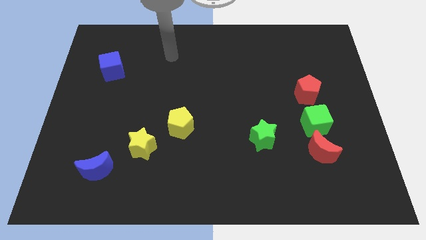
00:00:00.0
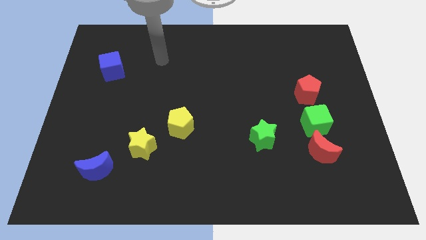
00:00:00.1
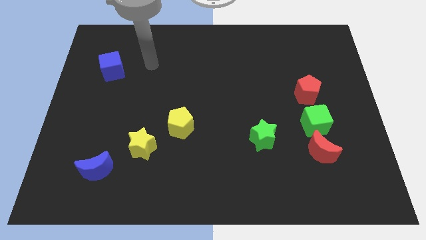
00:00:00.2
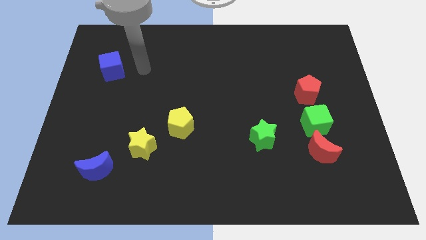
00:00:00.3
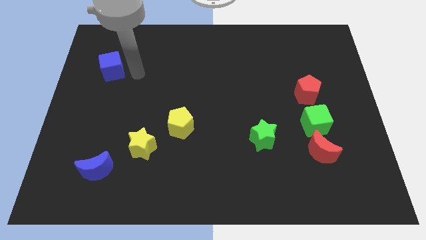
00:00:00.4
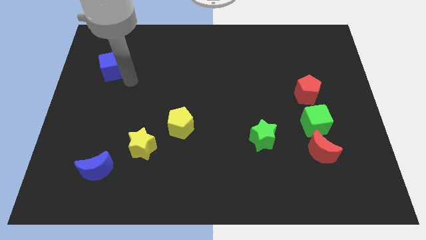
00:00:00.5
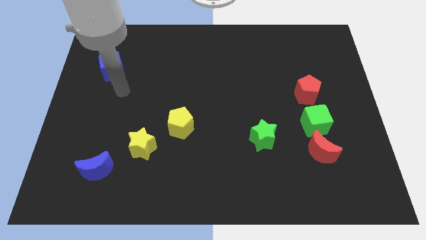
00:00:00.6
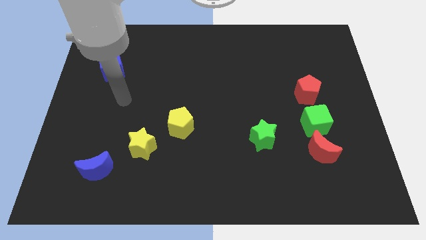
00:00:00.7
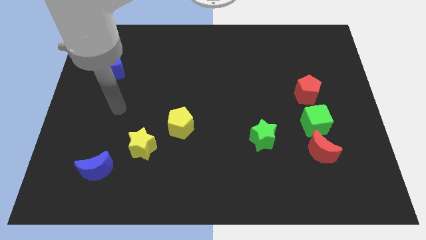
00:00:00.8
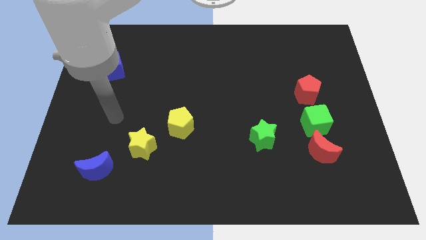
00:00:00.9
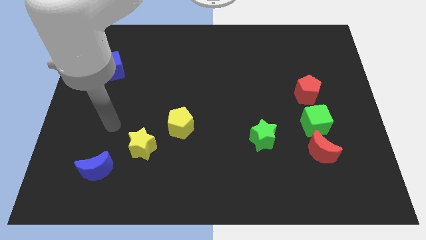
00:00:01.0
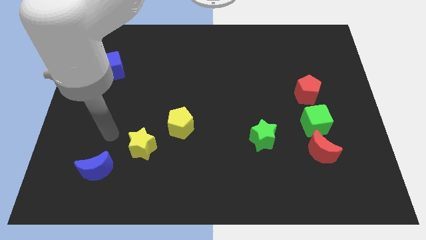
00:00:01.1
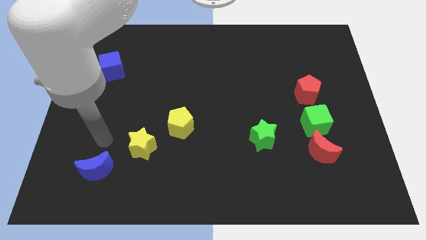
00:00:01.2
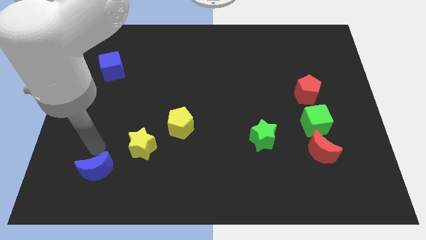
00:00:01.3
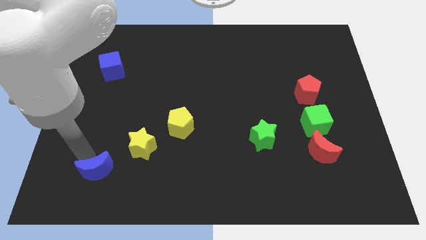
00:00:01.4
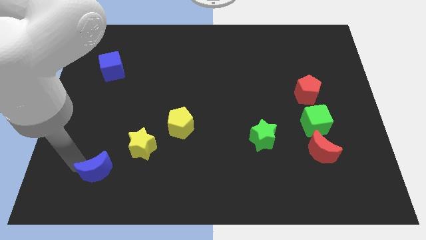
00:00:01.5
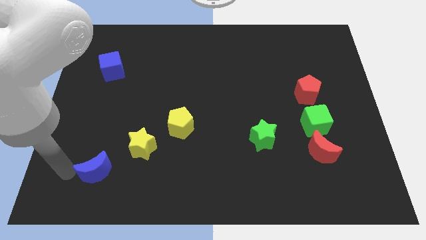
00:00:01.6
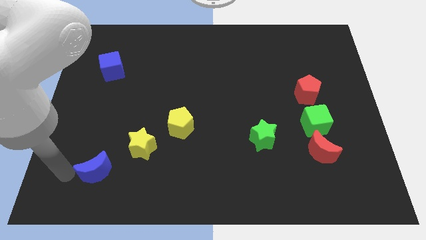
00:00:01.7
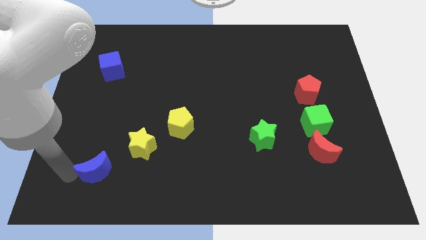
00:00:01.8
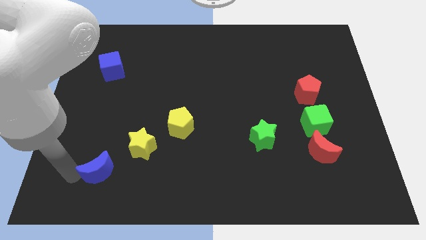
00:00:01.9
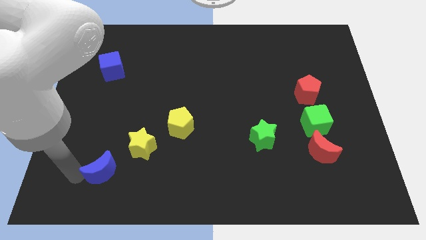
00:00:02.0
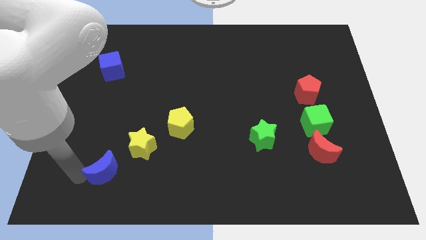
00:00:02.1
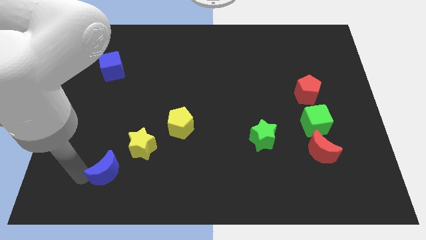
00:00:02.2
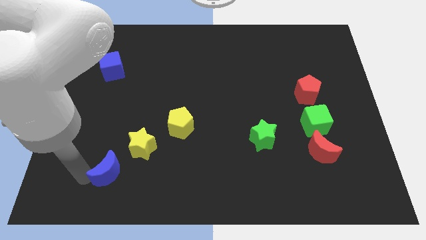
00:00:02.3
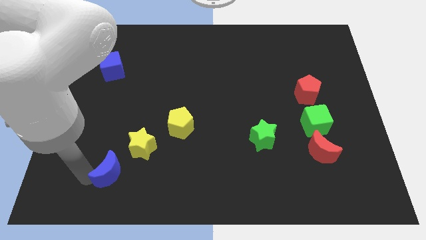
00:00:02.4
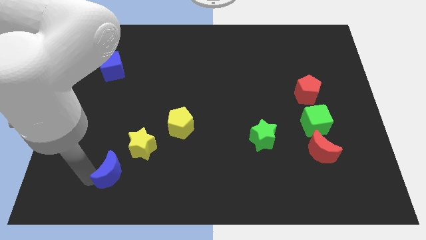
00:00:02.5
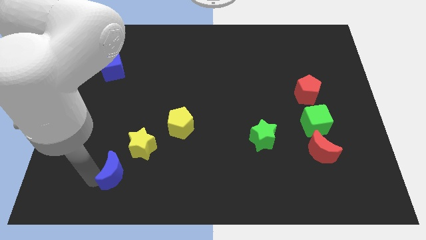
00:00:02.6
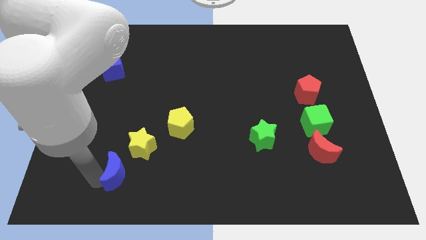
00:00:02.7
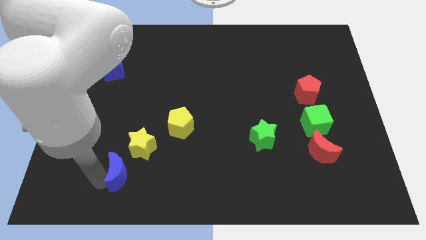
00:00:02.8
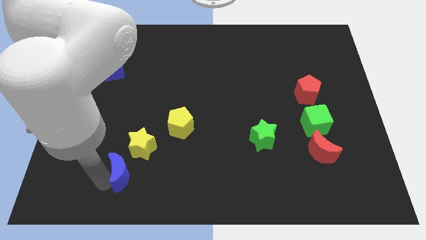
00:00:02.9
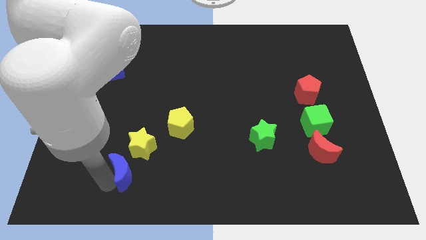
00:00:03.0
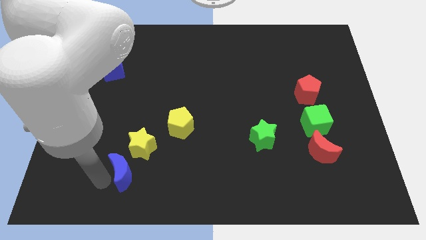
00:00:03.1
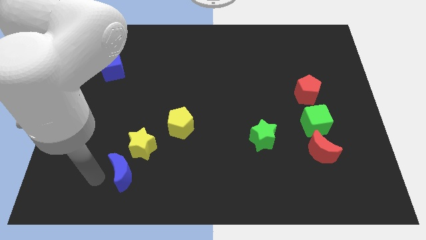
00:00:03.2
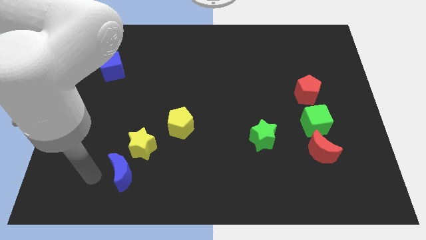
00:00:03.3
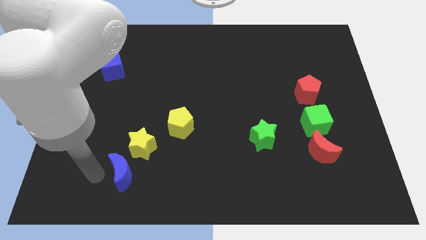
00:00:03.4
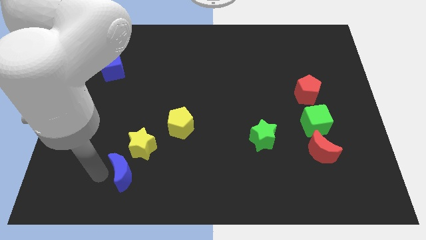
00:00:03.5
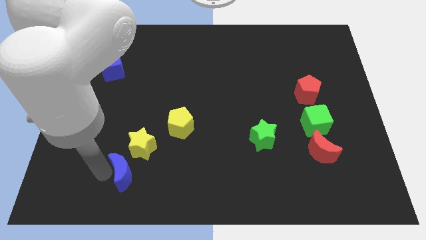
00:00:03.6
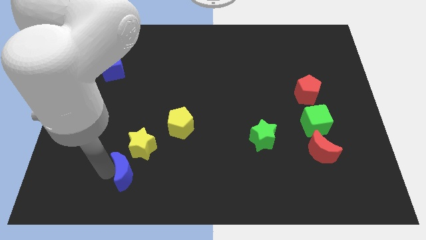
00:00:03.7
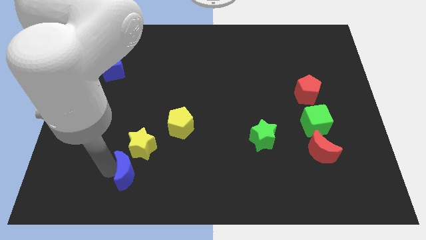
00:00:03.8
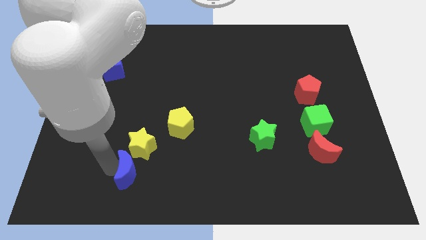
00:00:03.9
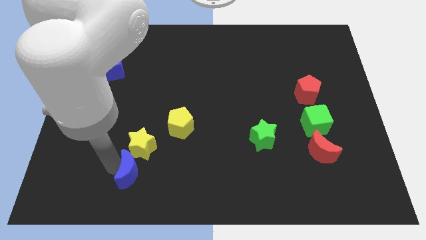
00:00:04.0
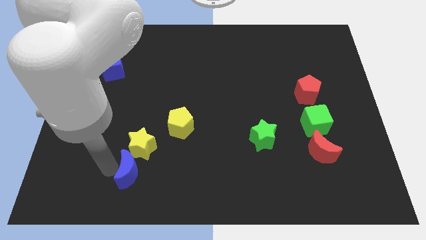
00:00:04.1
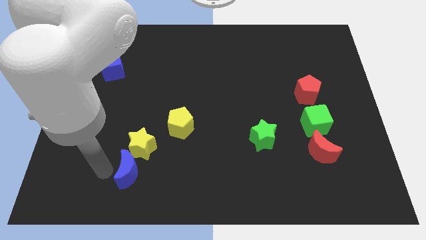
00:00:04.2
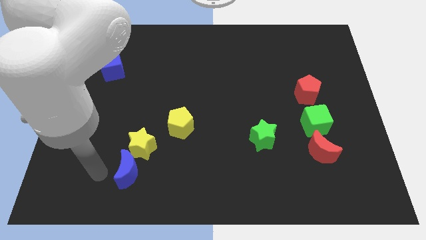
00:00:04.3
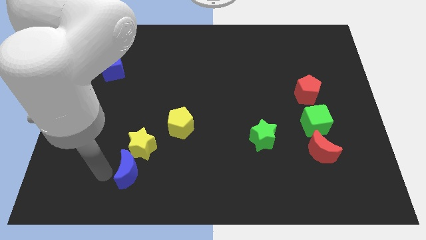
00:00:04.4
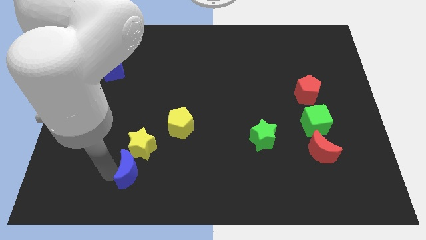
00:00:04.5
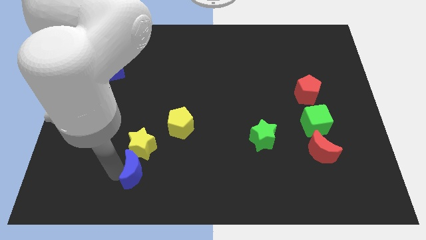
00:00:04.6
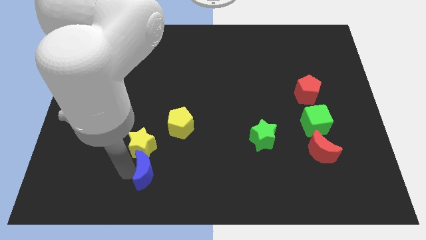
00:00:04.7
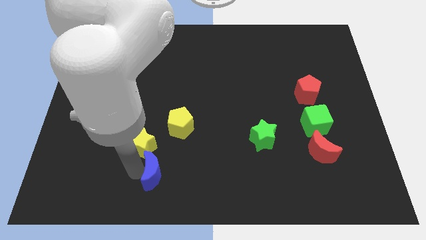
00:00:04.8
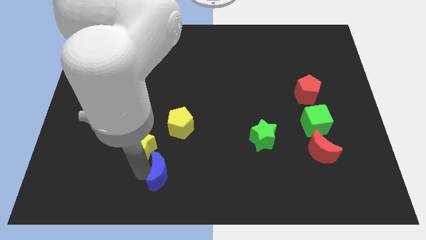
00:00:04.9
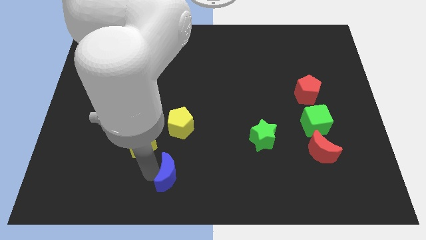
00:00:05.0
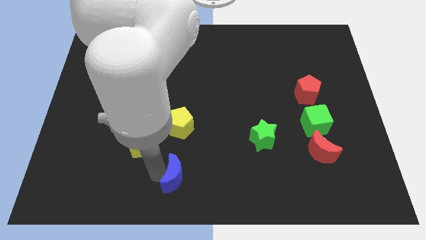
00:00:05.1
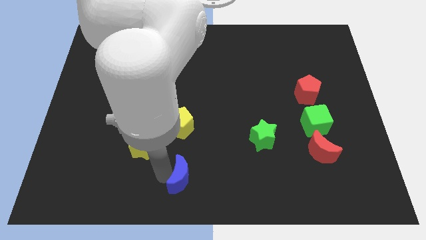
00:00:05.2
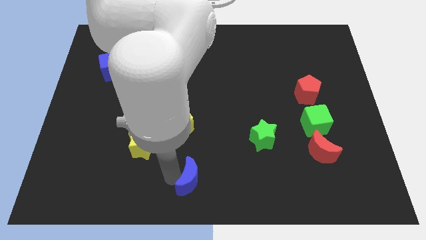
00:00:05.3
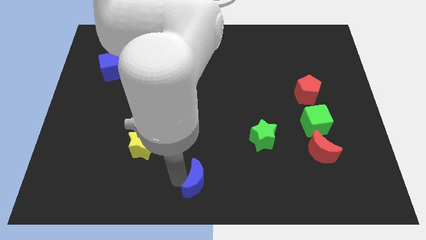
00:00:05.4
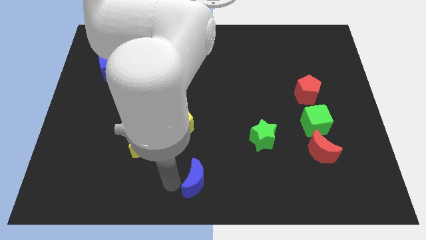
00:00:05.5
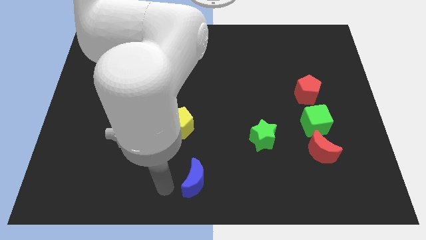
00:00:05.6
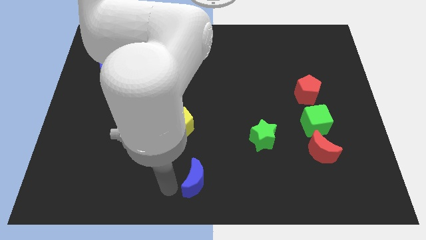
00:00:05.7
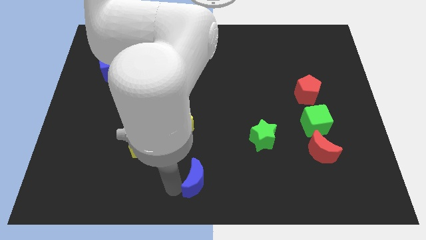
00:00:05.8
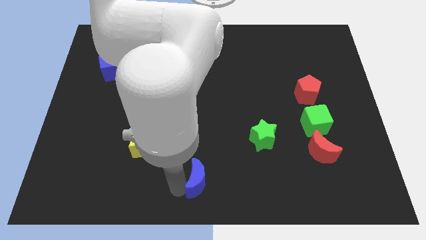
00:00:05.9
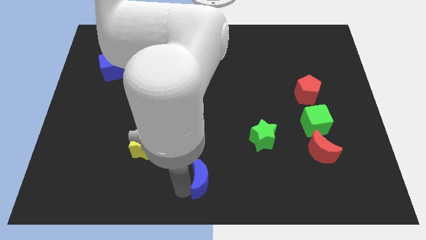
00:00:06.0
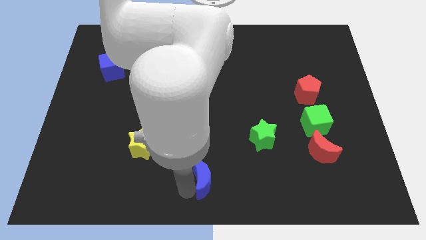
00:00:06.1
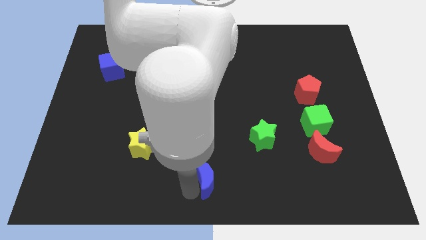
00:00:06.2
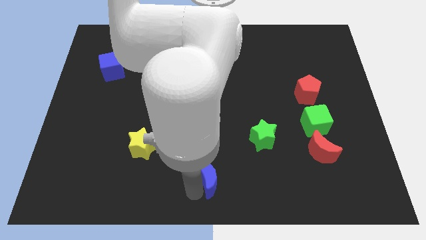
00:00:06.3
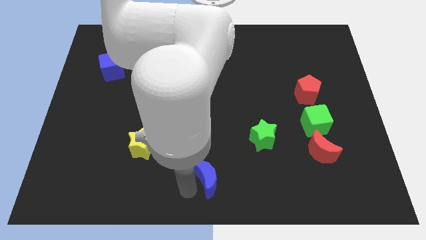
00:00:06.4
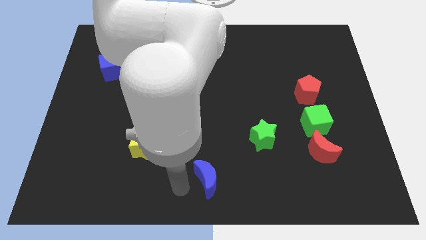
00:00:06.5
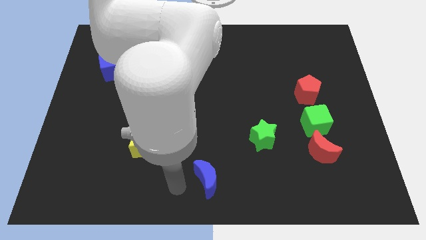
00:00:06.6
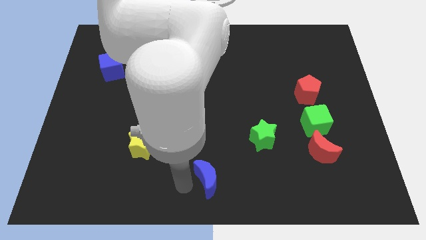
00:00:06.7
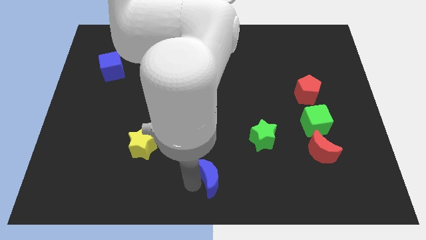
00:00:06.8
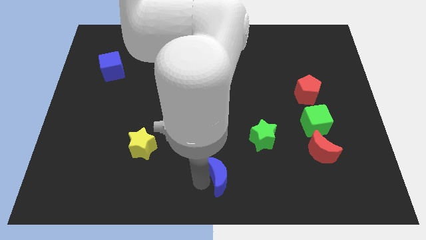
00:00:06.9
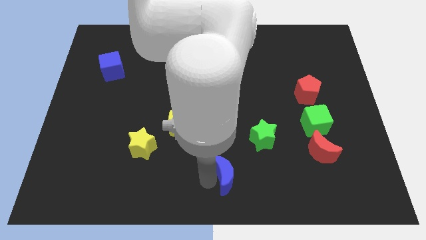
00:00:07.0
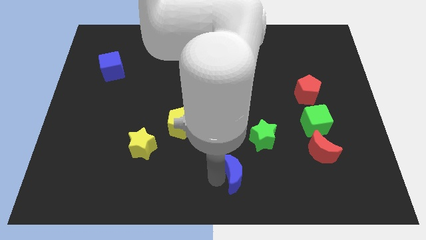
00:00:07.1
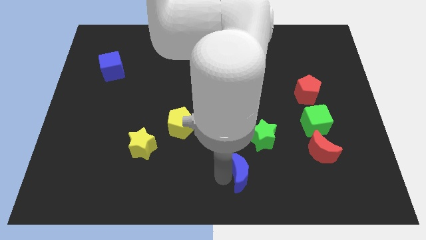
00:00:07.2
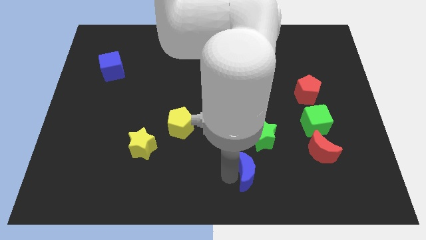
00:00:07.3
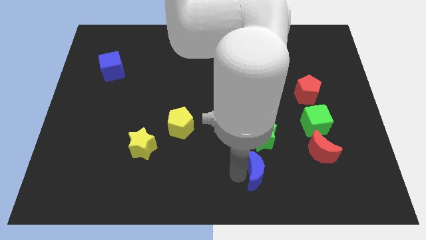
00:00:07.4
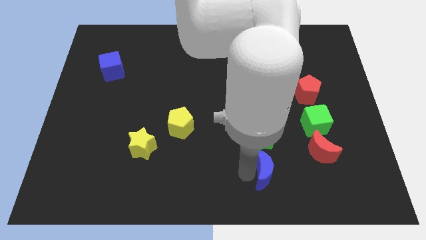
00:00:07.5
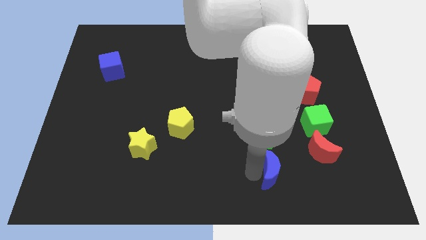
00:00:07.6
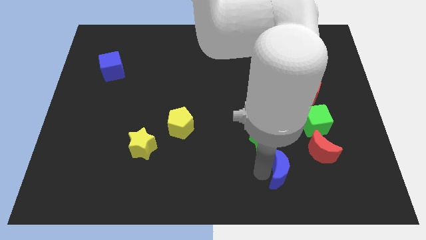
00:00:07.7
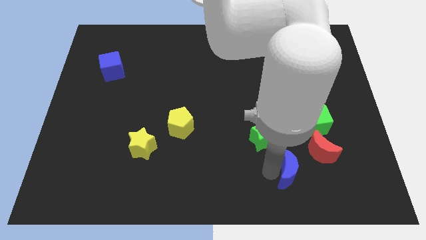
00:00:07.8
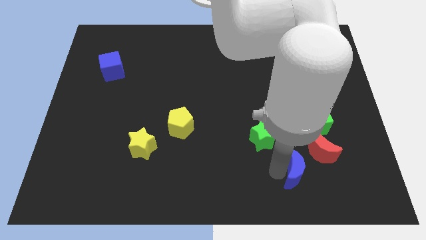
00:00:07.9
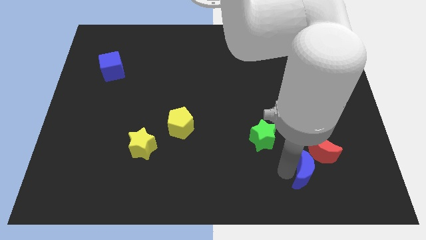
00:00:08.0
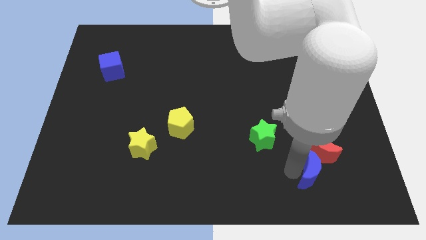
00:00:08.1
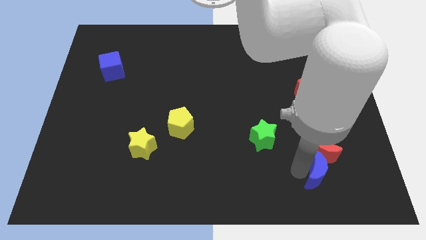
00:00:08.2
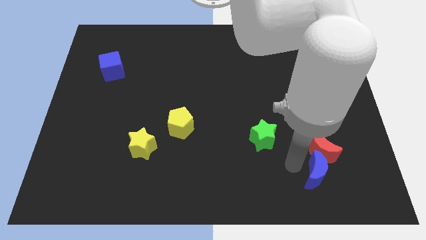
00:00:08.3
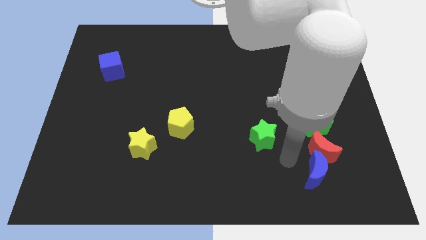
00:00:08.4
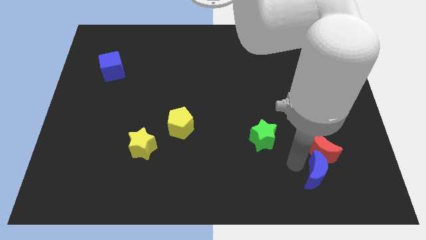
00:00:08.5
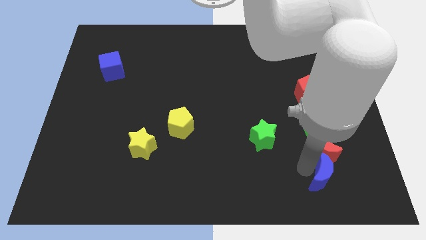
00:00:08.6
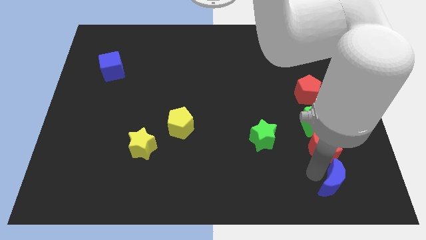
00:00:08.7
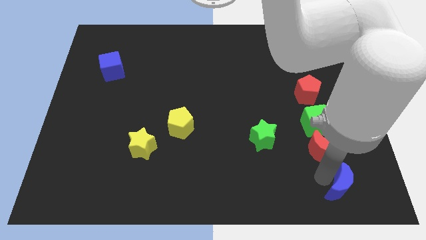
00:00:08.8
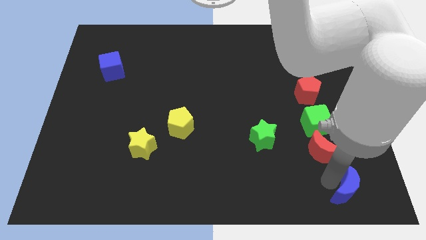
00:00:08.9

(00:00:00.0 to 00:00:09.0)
push the blue moon to the bottom right corner
